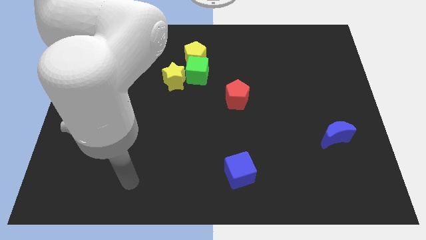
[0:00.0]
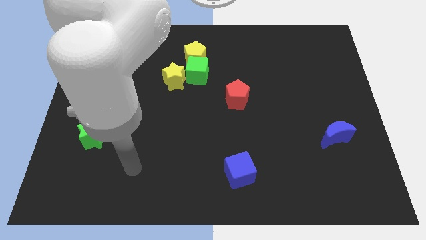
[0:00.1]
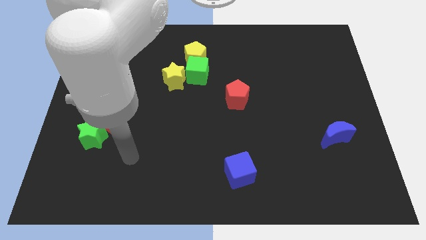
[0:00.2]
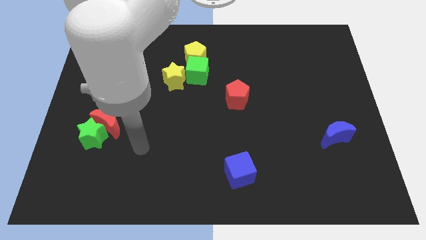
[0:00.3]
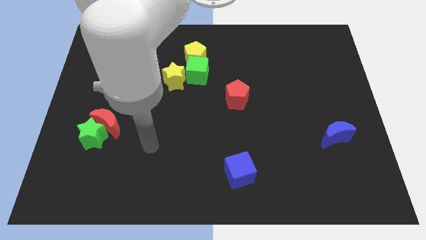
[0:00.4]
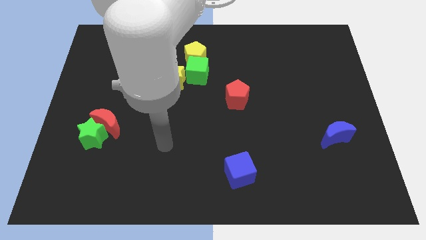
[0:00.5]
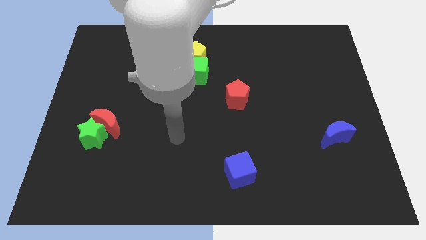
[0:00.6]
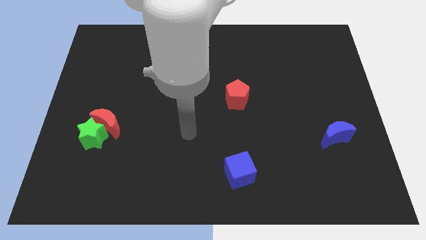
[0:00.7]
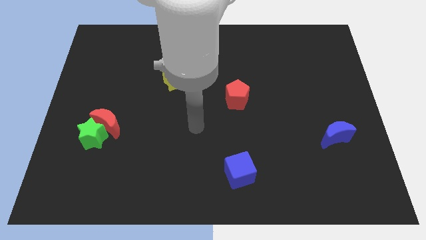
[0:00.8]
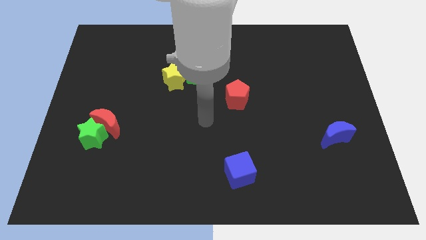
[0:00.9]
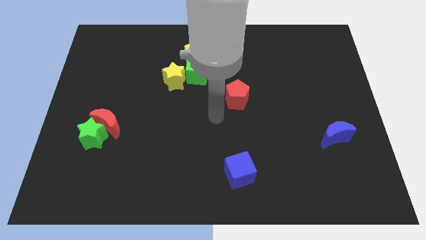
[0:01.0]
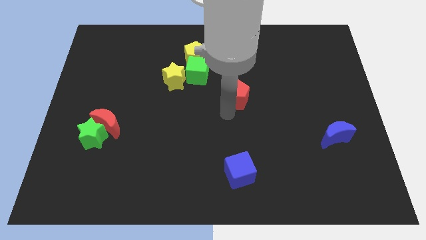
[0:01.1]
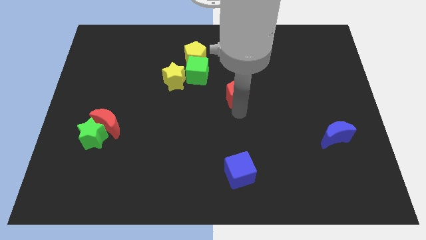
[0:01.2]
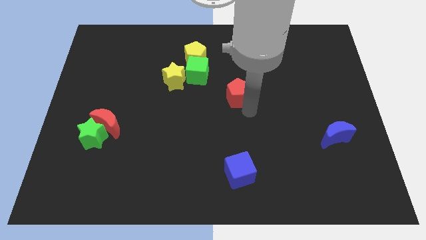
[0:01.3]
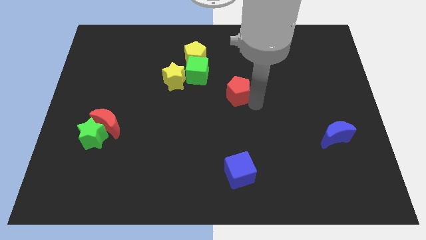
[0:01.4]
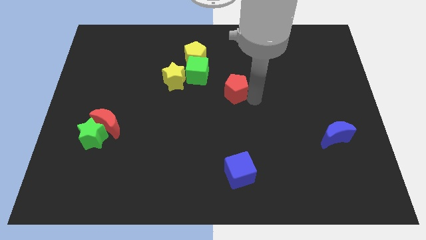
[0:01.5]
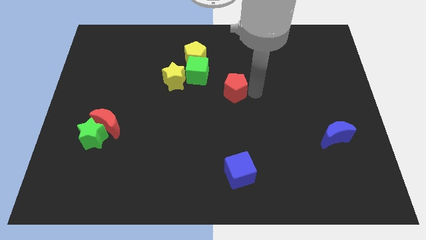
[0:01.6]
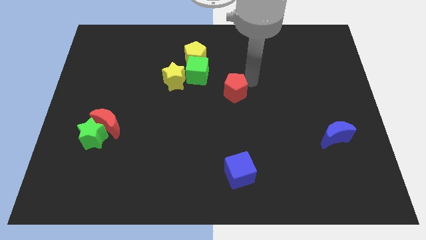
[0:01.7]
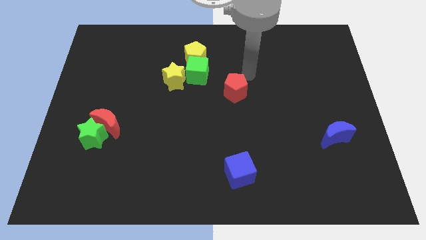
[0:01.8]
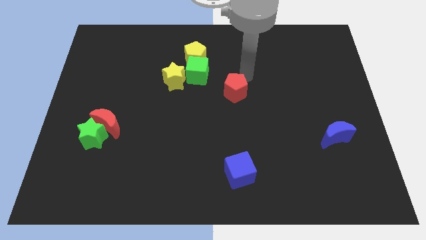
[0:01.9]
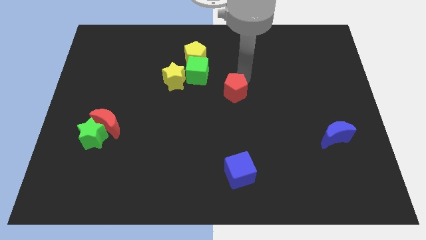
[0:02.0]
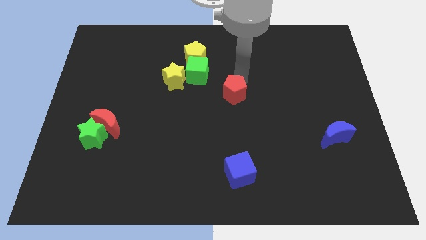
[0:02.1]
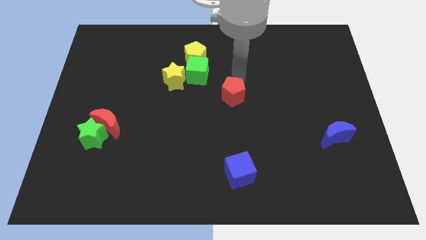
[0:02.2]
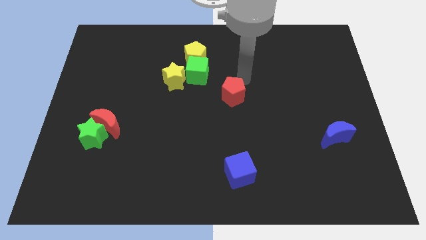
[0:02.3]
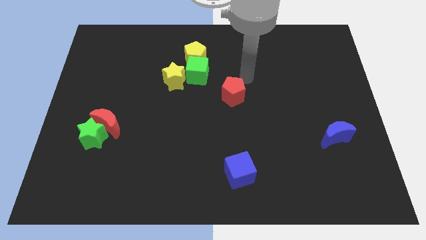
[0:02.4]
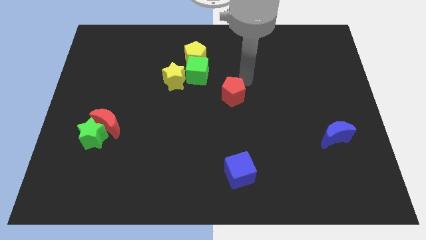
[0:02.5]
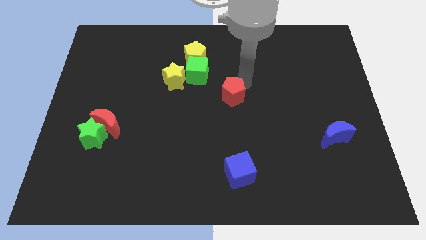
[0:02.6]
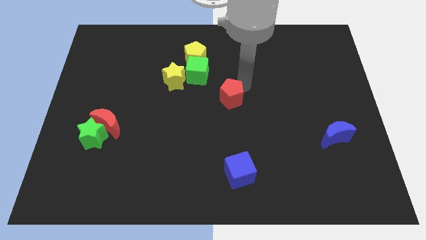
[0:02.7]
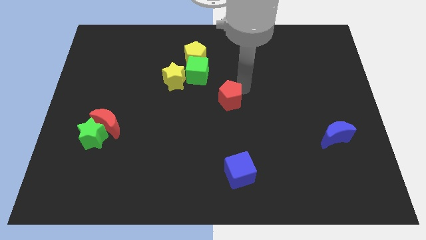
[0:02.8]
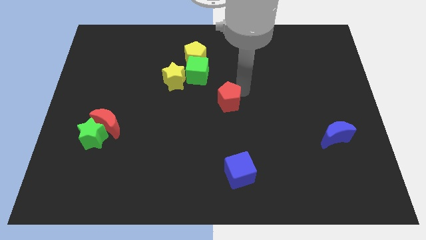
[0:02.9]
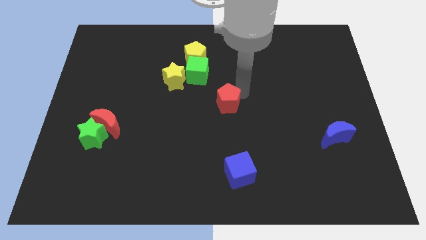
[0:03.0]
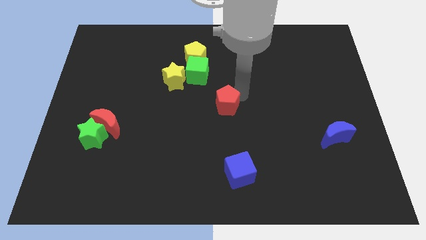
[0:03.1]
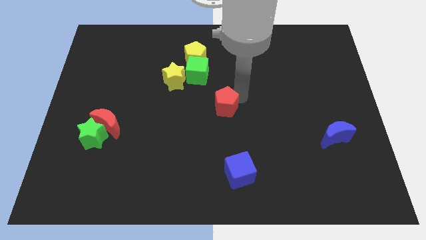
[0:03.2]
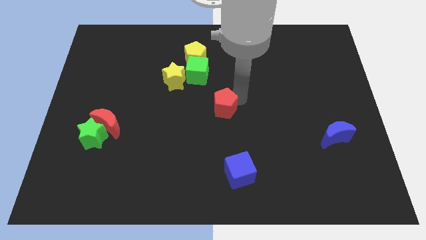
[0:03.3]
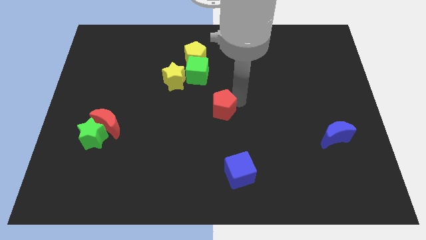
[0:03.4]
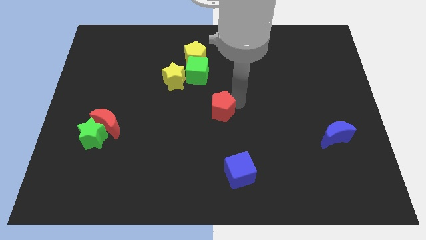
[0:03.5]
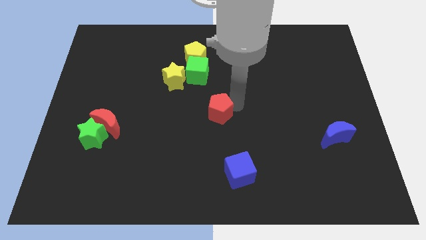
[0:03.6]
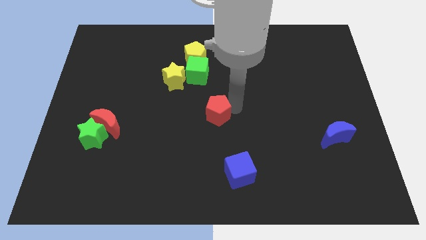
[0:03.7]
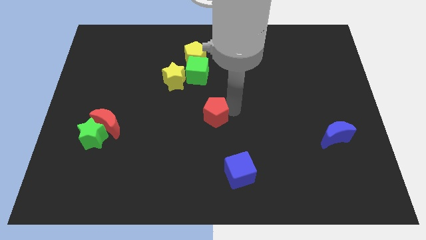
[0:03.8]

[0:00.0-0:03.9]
move the red pentagon a little diagonally down and left

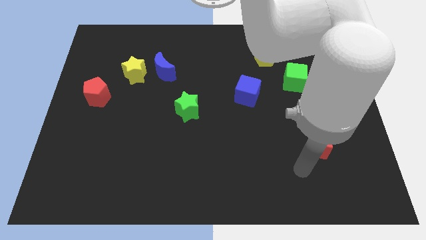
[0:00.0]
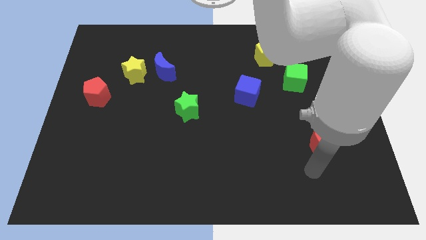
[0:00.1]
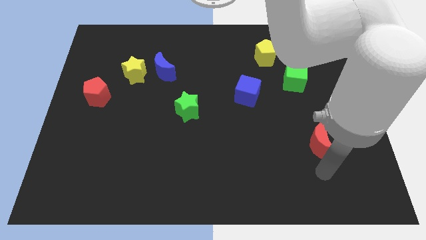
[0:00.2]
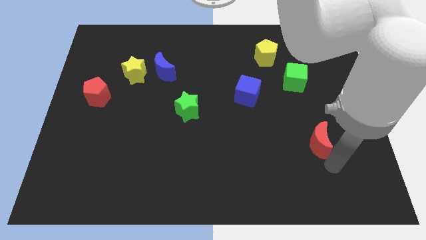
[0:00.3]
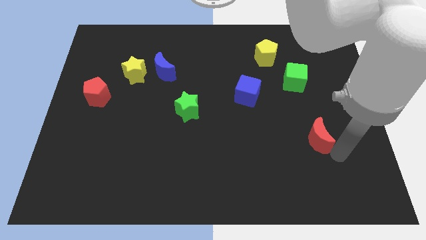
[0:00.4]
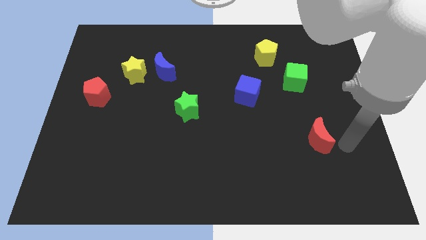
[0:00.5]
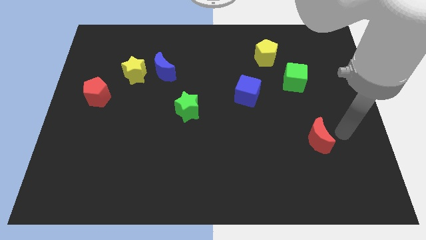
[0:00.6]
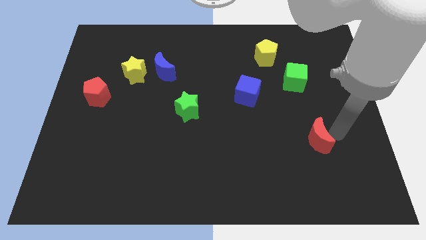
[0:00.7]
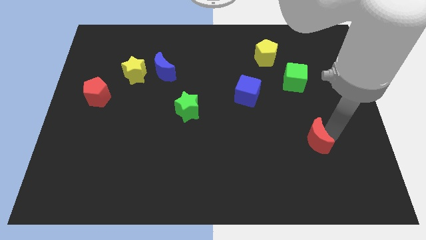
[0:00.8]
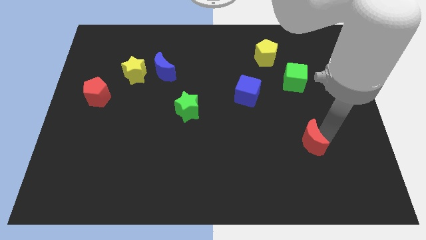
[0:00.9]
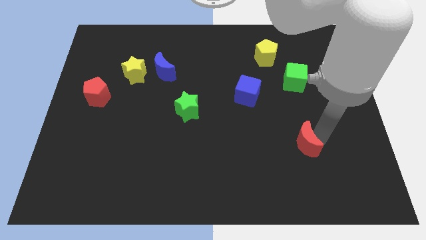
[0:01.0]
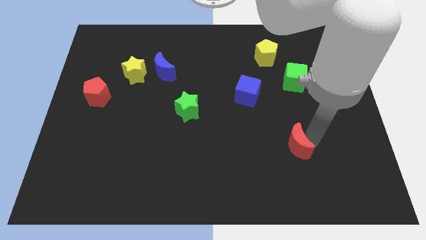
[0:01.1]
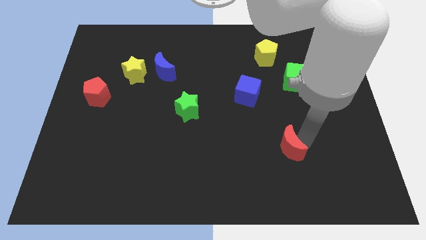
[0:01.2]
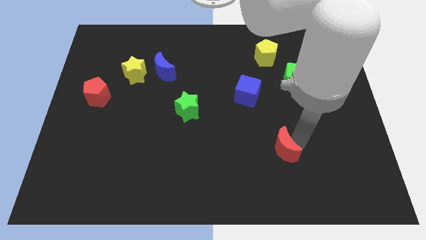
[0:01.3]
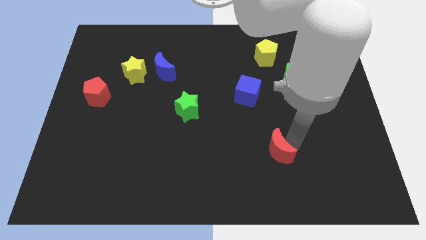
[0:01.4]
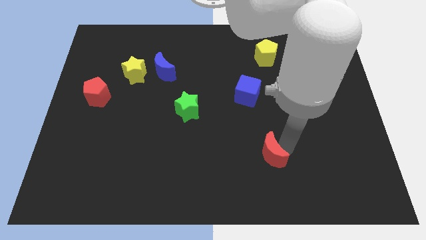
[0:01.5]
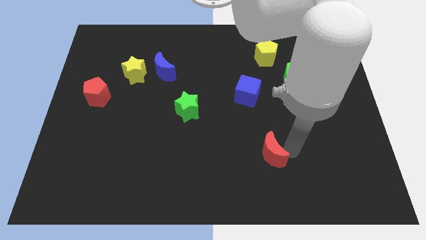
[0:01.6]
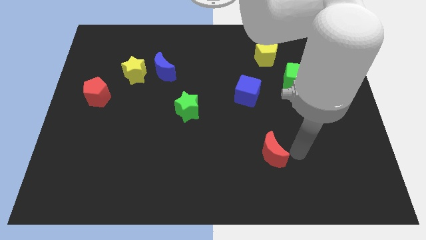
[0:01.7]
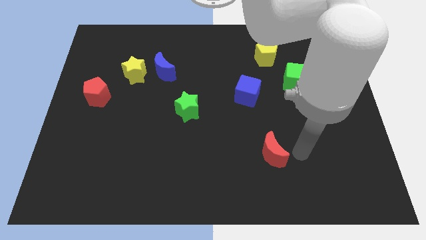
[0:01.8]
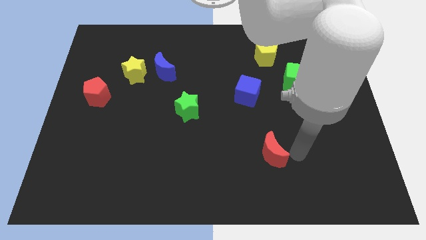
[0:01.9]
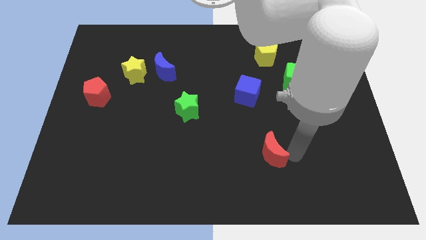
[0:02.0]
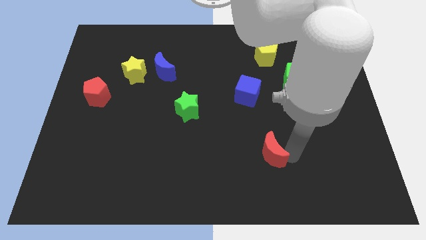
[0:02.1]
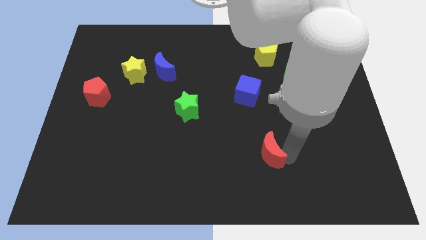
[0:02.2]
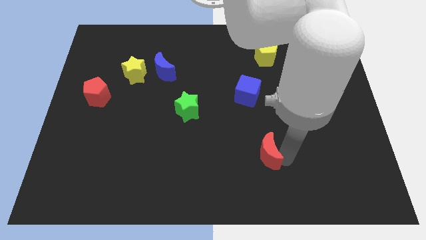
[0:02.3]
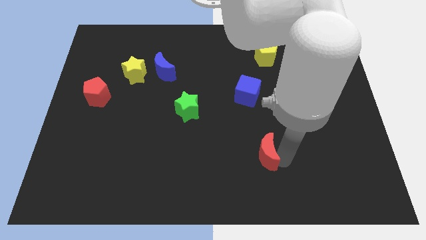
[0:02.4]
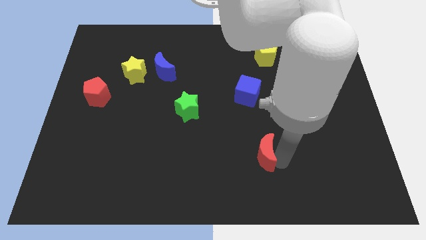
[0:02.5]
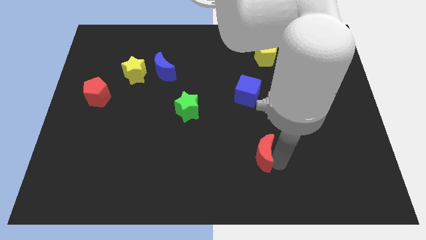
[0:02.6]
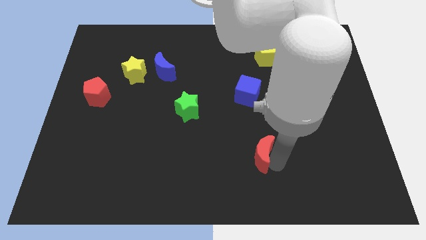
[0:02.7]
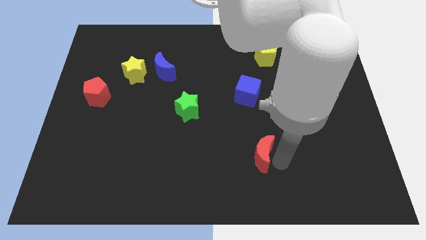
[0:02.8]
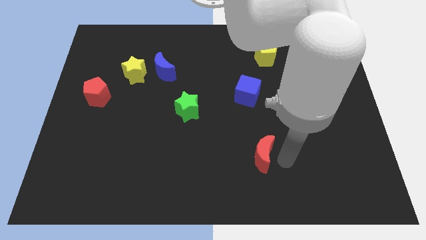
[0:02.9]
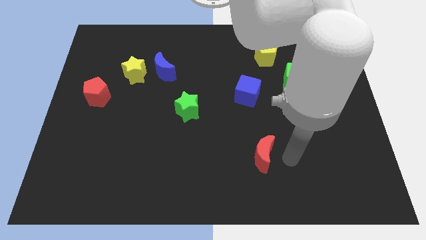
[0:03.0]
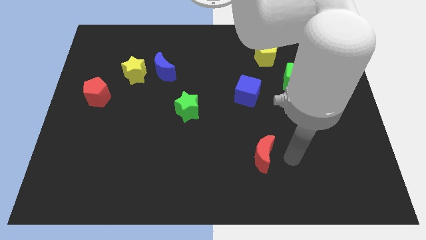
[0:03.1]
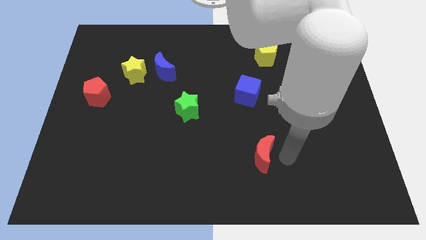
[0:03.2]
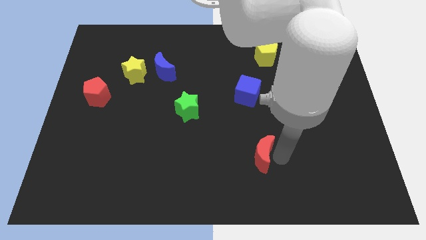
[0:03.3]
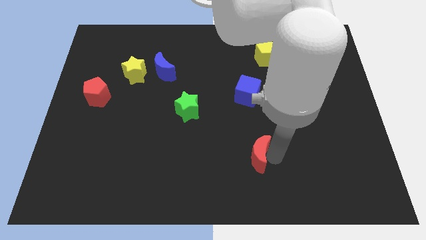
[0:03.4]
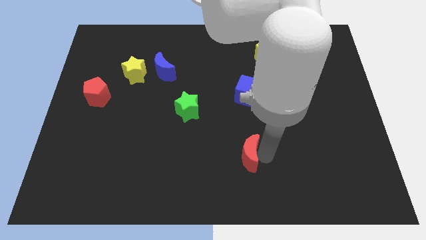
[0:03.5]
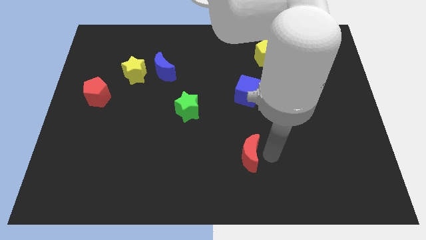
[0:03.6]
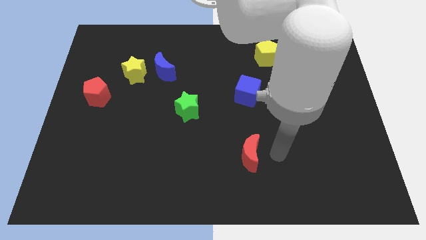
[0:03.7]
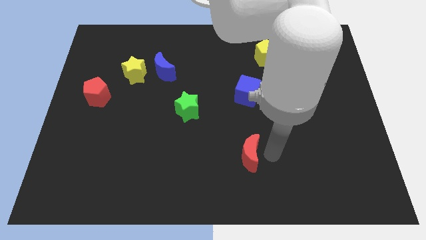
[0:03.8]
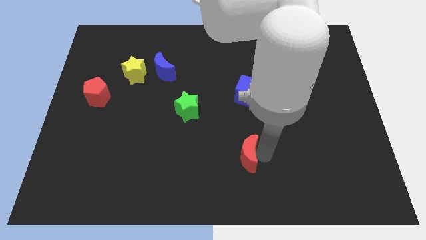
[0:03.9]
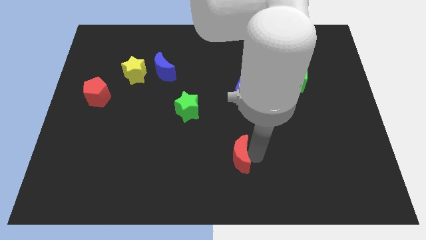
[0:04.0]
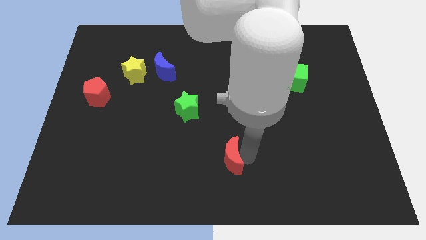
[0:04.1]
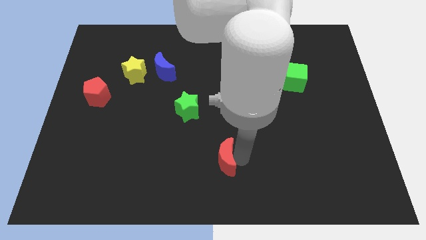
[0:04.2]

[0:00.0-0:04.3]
move the red moon left

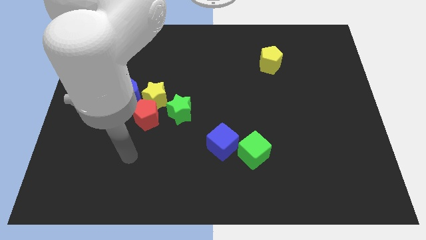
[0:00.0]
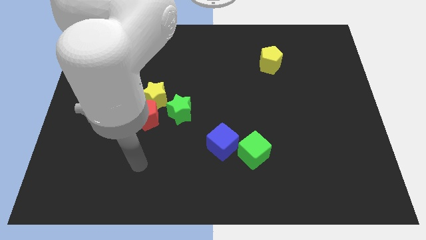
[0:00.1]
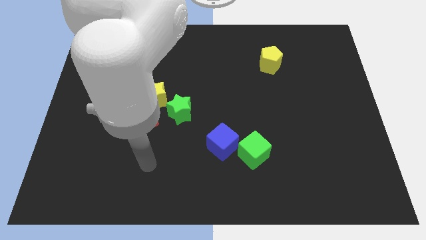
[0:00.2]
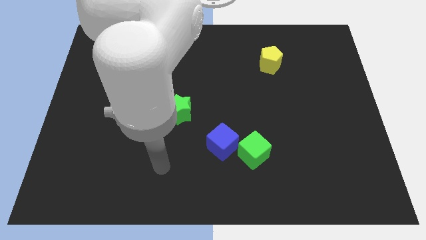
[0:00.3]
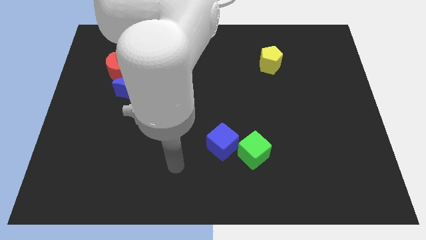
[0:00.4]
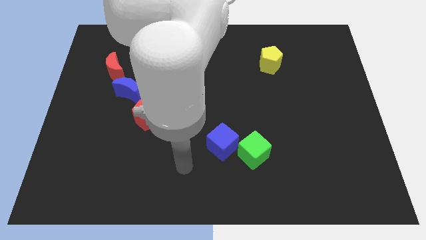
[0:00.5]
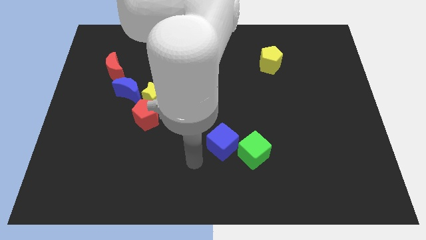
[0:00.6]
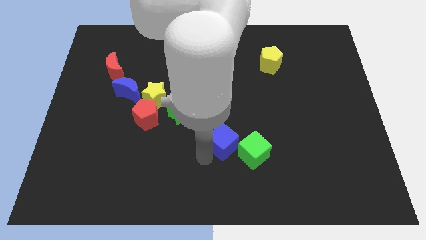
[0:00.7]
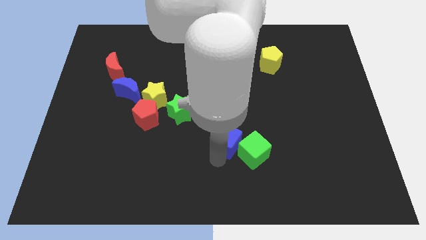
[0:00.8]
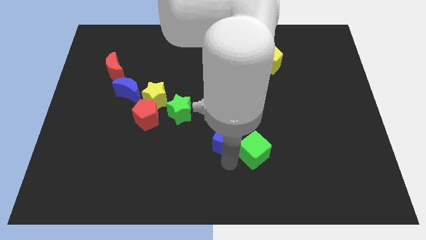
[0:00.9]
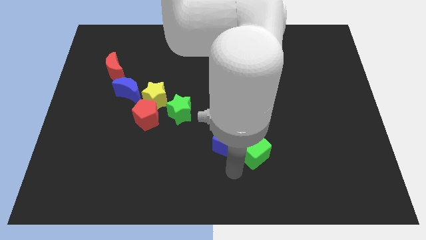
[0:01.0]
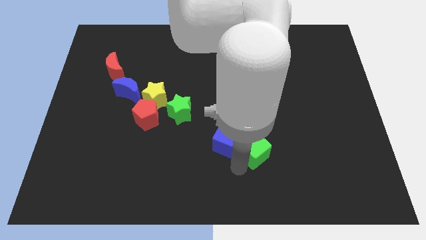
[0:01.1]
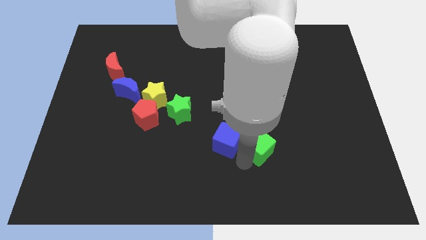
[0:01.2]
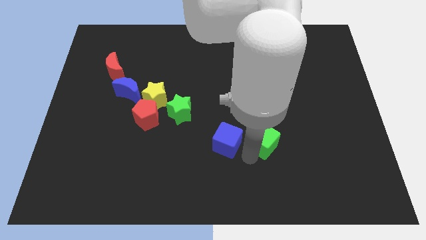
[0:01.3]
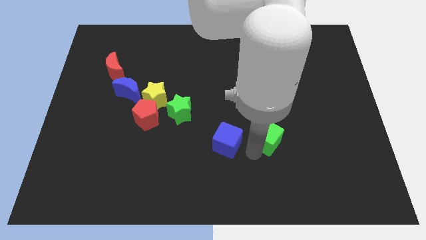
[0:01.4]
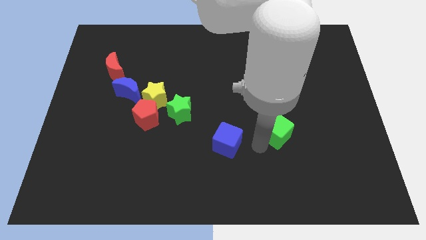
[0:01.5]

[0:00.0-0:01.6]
slightly push the green cube diagonally up and right
